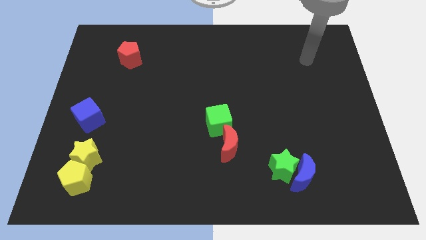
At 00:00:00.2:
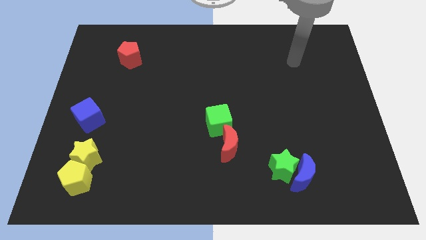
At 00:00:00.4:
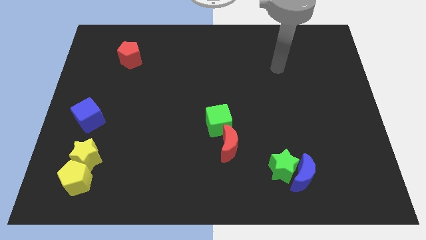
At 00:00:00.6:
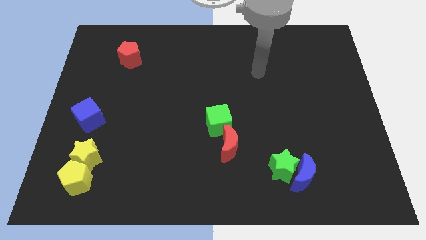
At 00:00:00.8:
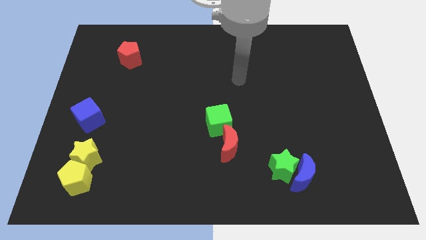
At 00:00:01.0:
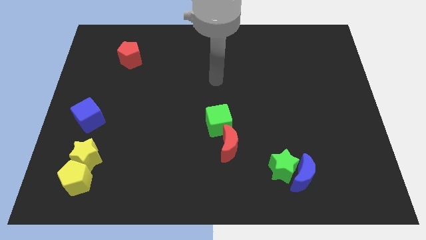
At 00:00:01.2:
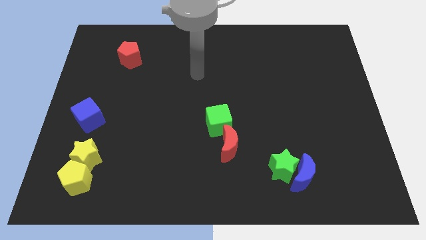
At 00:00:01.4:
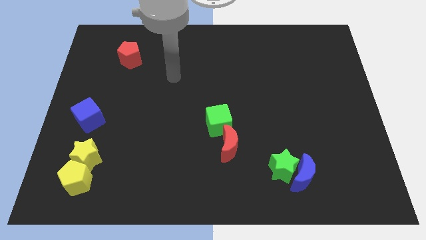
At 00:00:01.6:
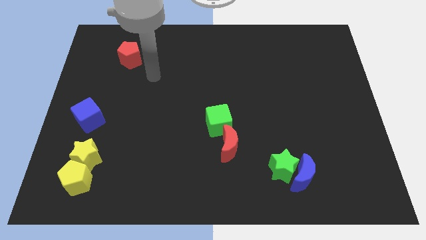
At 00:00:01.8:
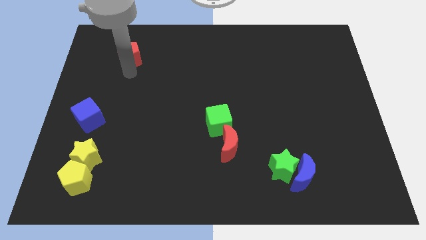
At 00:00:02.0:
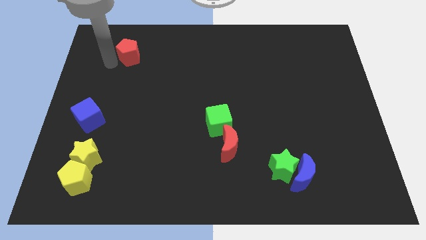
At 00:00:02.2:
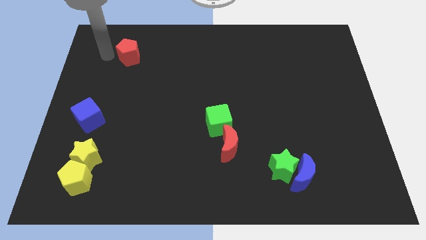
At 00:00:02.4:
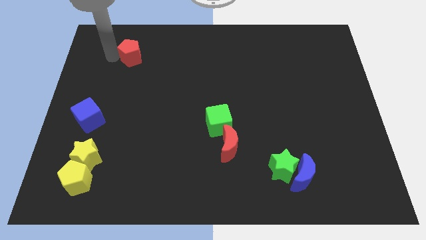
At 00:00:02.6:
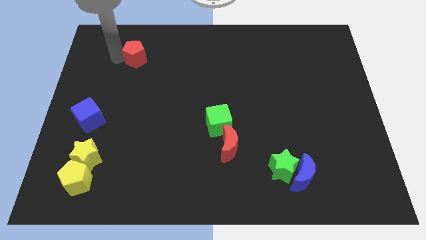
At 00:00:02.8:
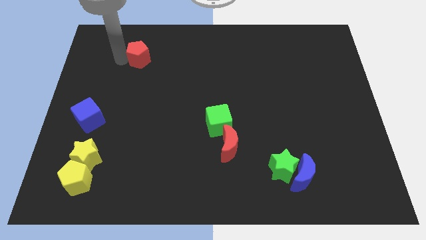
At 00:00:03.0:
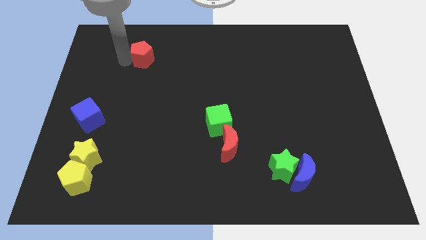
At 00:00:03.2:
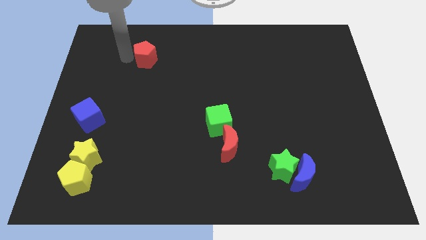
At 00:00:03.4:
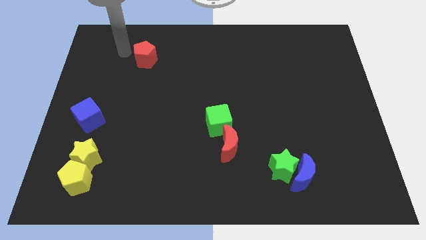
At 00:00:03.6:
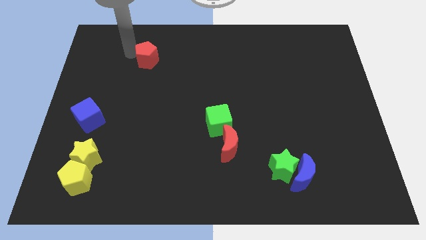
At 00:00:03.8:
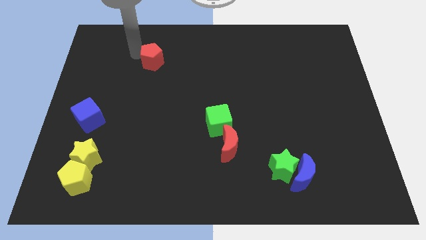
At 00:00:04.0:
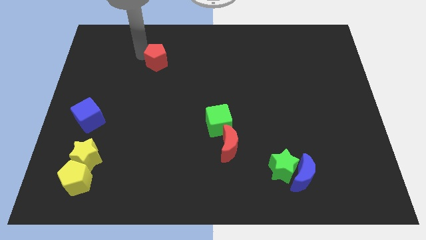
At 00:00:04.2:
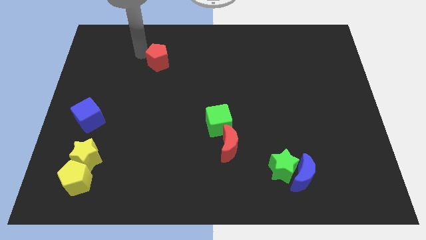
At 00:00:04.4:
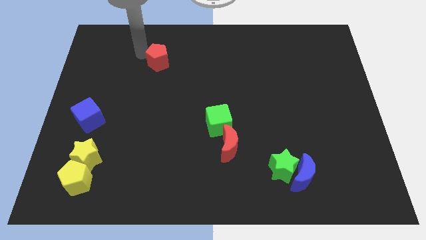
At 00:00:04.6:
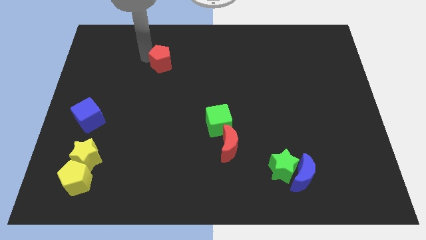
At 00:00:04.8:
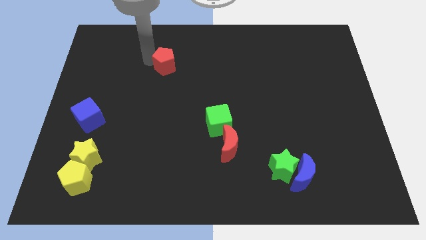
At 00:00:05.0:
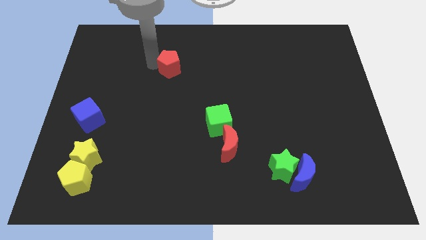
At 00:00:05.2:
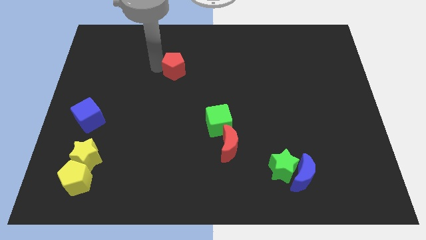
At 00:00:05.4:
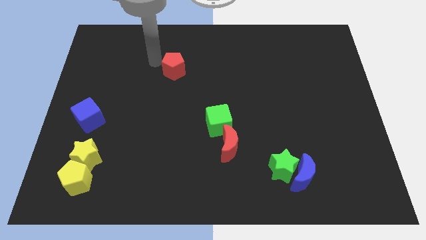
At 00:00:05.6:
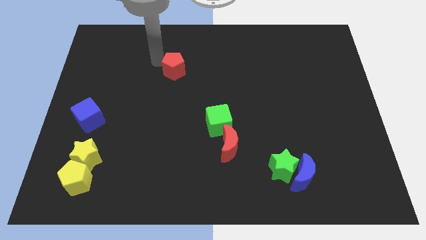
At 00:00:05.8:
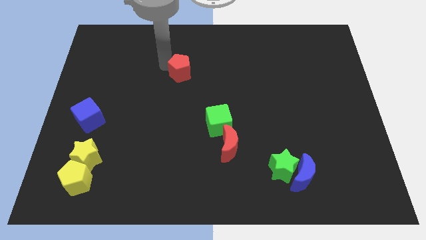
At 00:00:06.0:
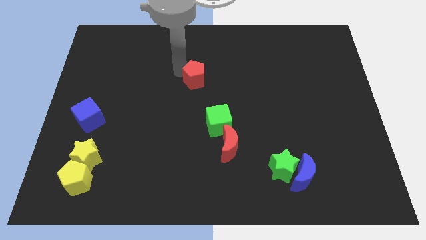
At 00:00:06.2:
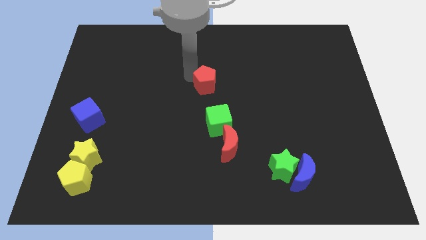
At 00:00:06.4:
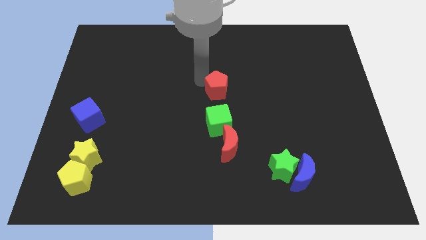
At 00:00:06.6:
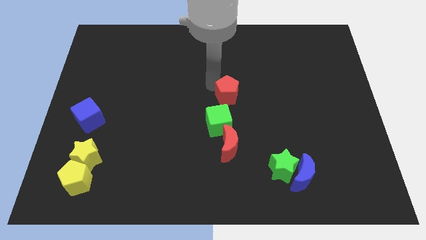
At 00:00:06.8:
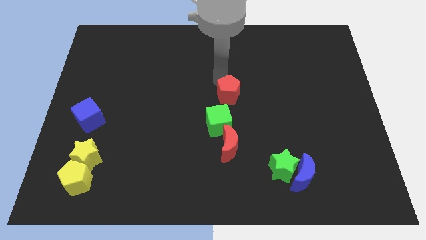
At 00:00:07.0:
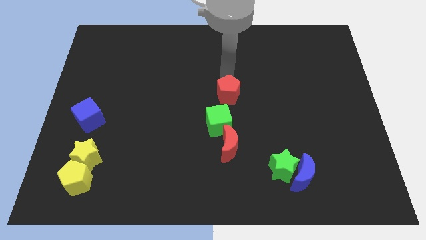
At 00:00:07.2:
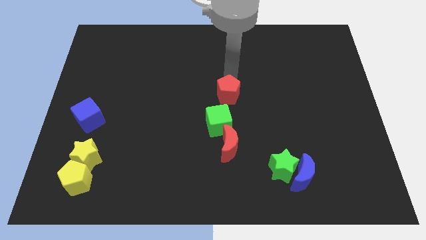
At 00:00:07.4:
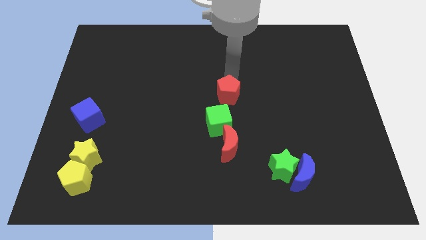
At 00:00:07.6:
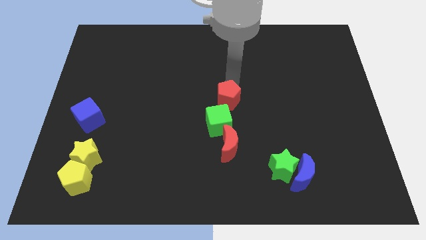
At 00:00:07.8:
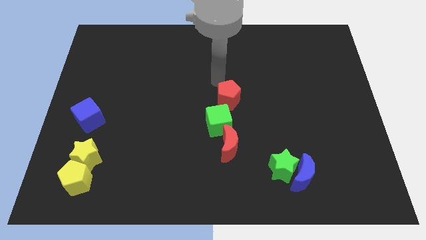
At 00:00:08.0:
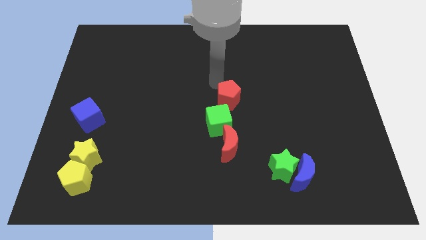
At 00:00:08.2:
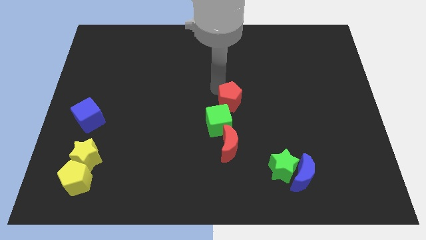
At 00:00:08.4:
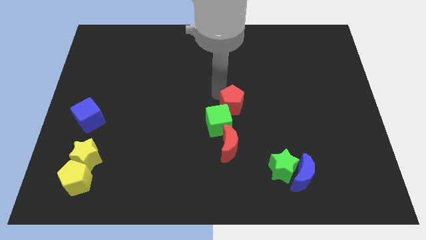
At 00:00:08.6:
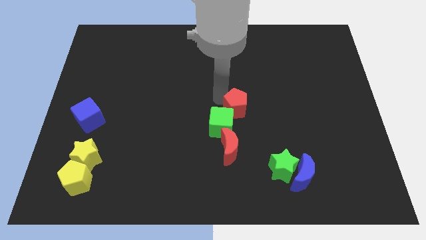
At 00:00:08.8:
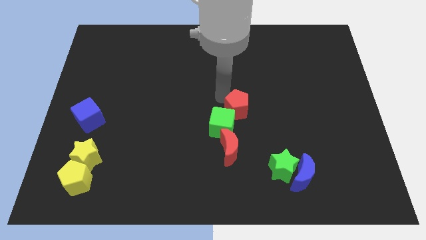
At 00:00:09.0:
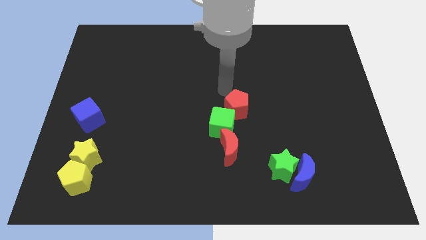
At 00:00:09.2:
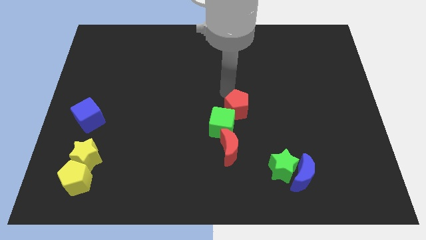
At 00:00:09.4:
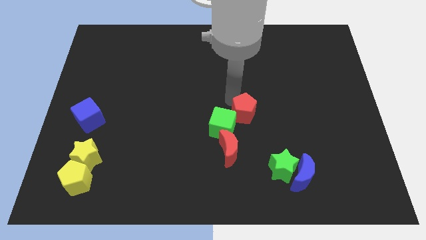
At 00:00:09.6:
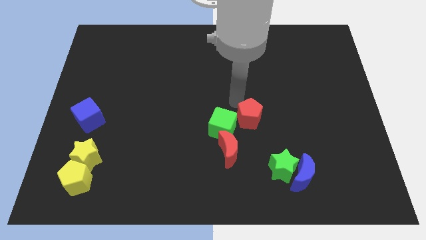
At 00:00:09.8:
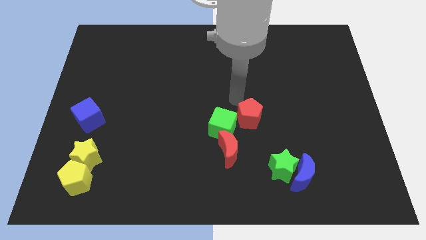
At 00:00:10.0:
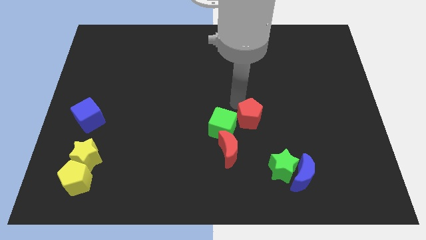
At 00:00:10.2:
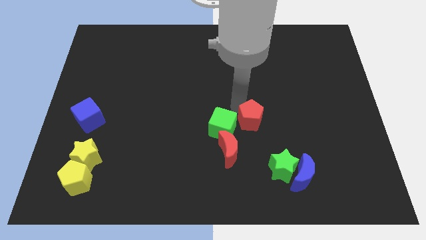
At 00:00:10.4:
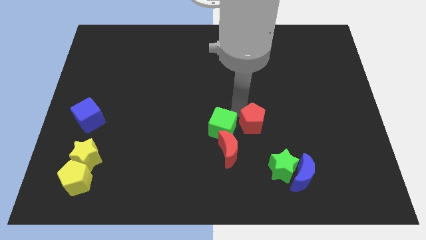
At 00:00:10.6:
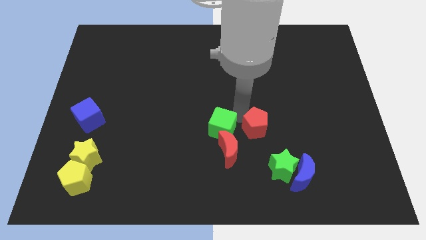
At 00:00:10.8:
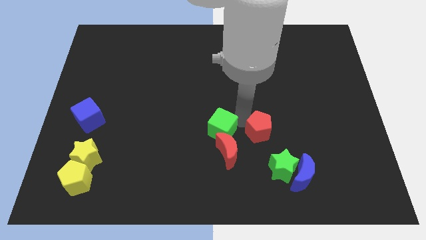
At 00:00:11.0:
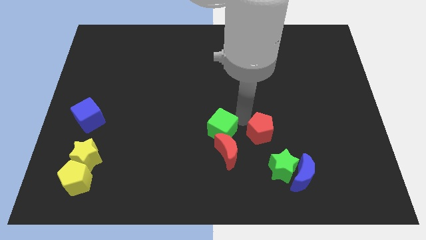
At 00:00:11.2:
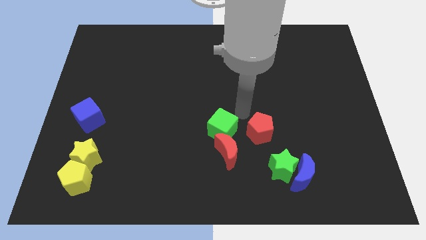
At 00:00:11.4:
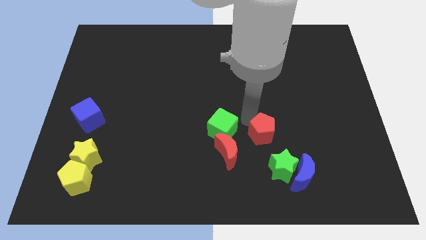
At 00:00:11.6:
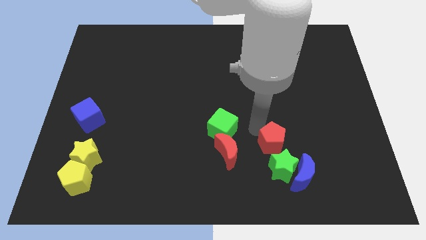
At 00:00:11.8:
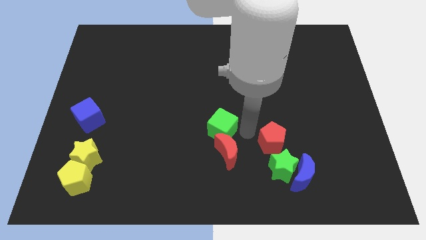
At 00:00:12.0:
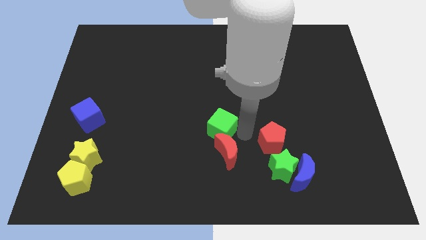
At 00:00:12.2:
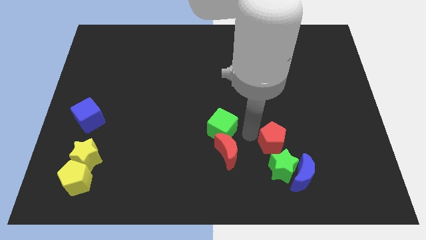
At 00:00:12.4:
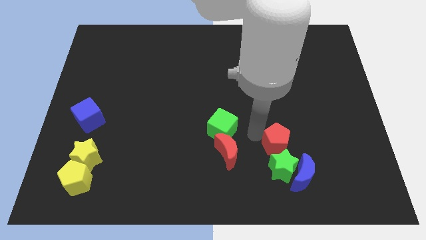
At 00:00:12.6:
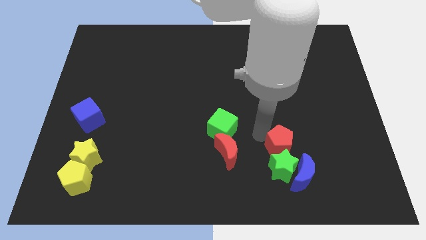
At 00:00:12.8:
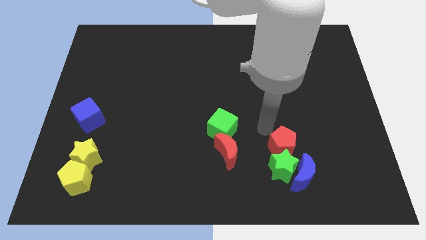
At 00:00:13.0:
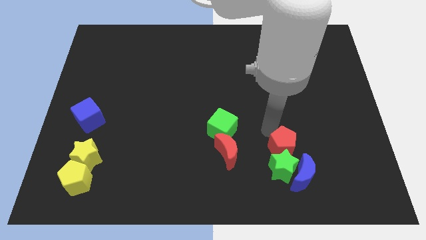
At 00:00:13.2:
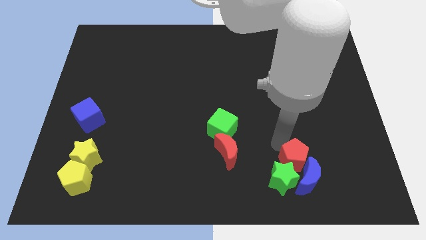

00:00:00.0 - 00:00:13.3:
put the red pentagon to the blue moon
